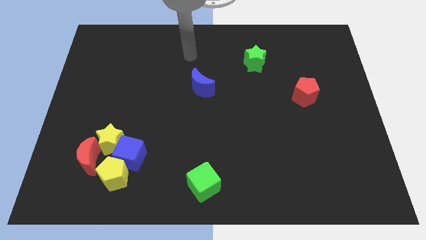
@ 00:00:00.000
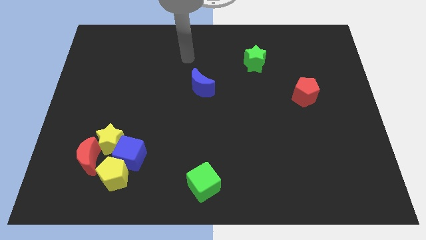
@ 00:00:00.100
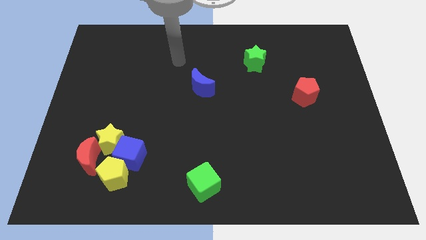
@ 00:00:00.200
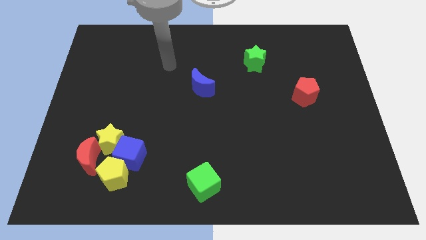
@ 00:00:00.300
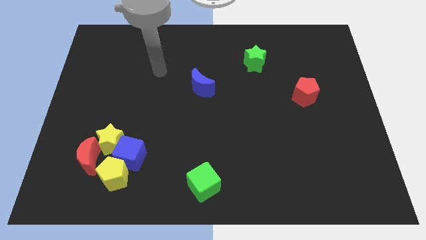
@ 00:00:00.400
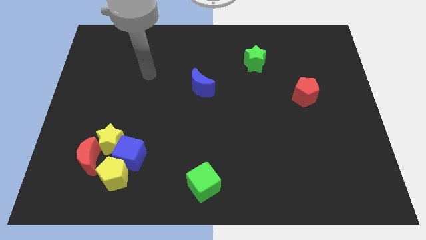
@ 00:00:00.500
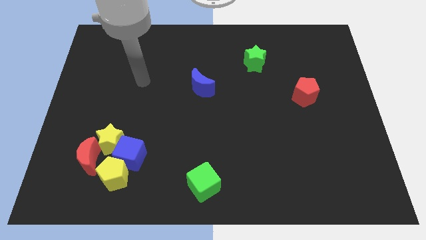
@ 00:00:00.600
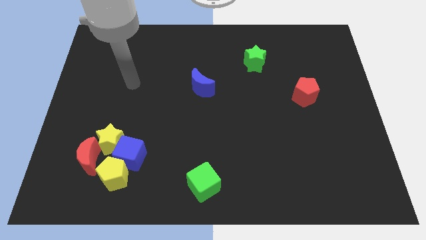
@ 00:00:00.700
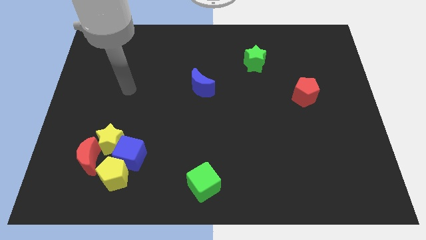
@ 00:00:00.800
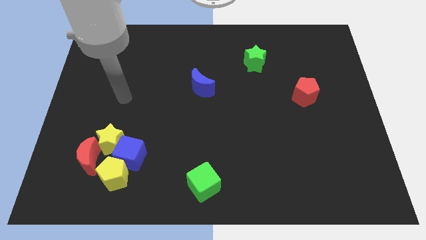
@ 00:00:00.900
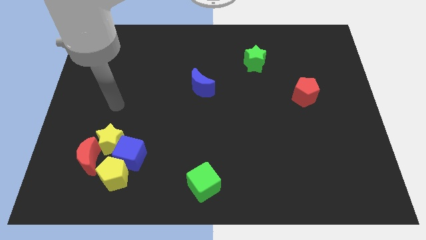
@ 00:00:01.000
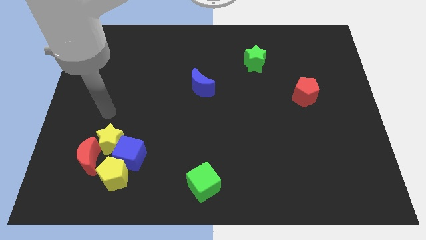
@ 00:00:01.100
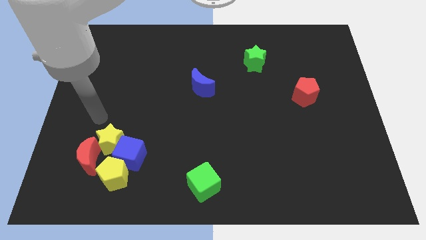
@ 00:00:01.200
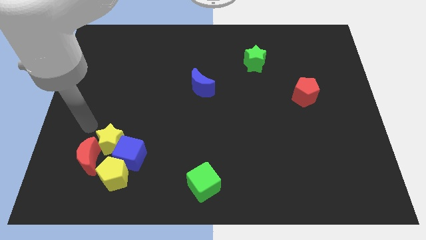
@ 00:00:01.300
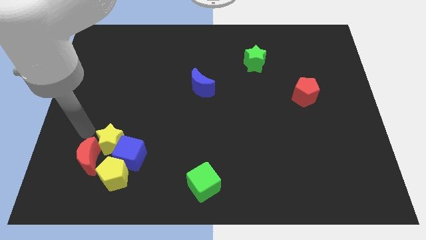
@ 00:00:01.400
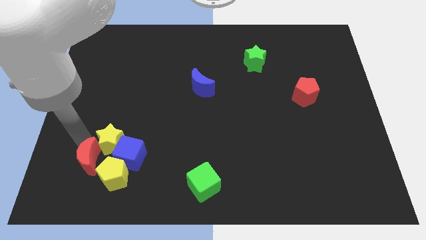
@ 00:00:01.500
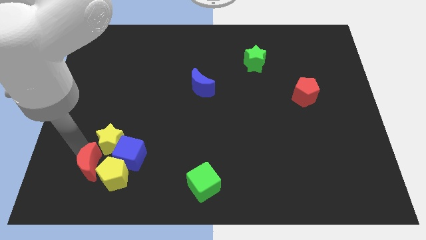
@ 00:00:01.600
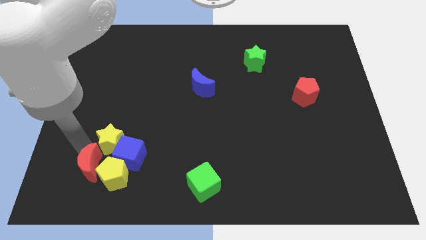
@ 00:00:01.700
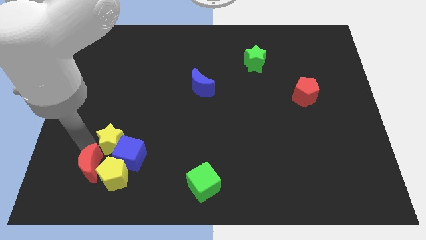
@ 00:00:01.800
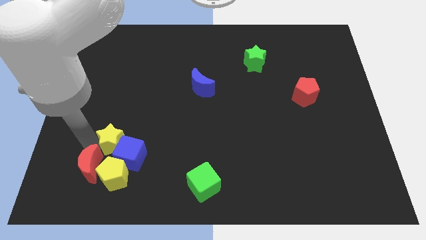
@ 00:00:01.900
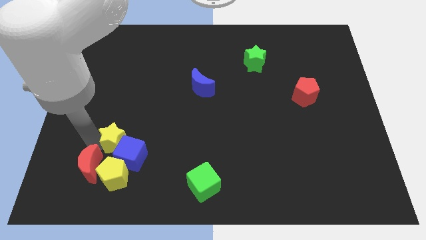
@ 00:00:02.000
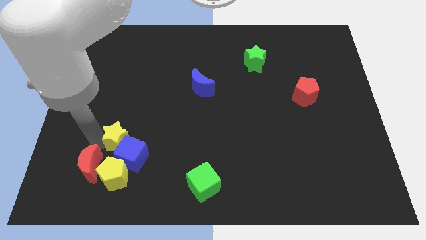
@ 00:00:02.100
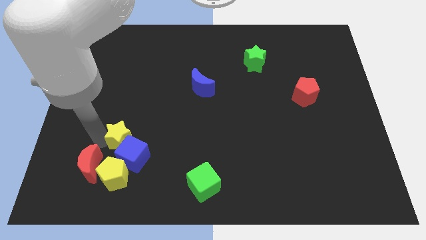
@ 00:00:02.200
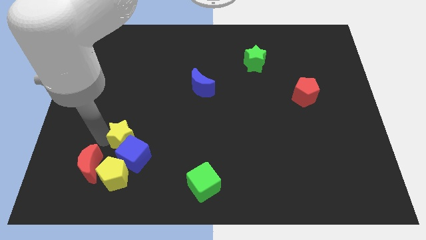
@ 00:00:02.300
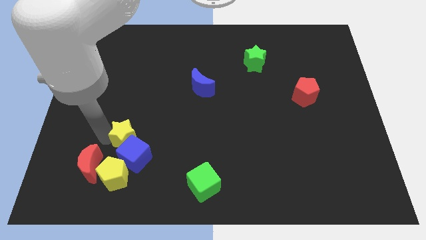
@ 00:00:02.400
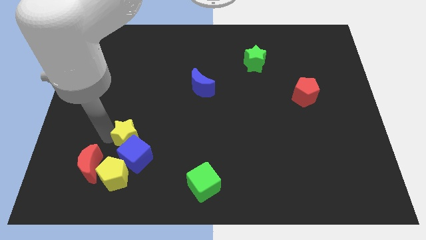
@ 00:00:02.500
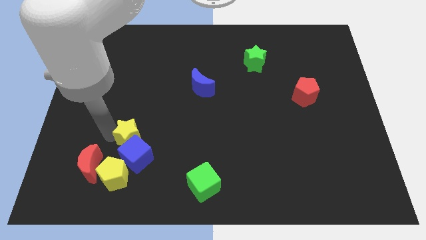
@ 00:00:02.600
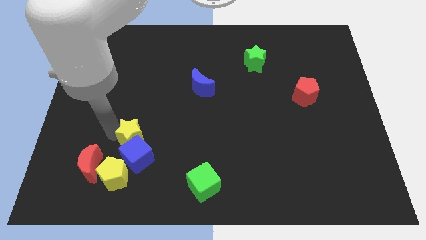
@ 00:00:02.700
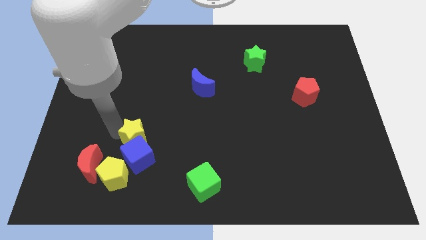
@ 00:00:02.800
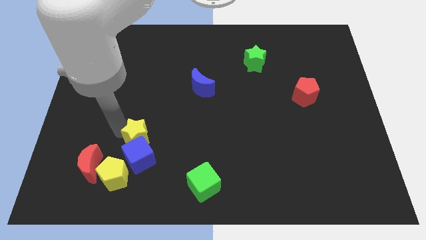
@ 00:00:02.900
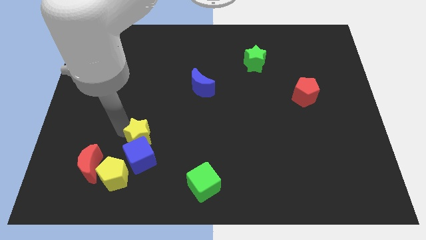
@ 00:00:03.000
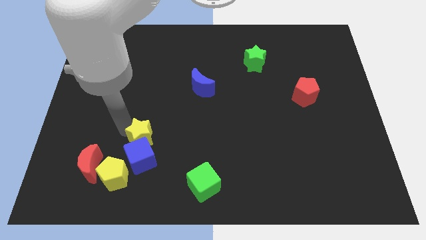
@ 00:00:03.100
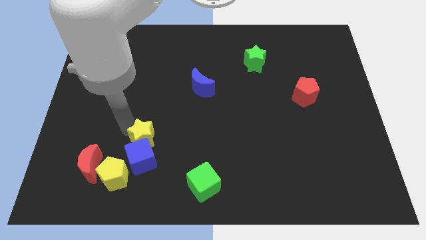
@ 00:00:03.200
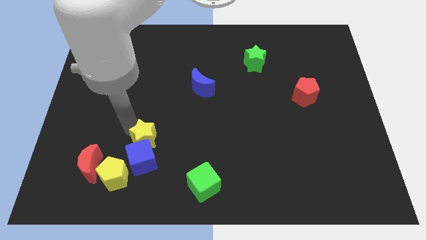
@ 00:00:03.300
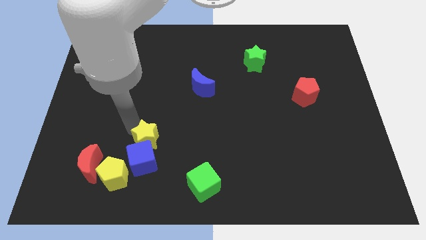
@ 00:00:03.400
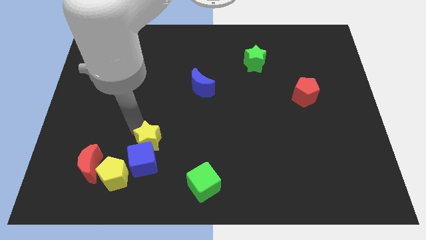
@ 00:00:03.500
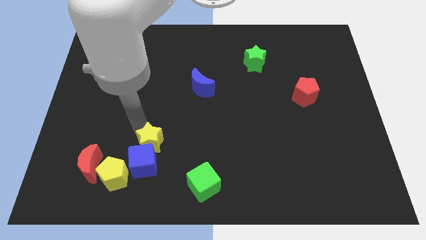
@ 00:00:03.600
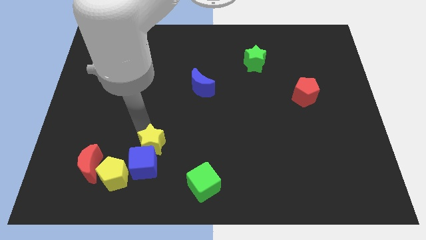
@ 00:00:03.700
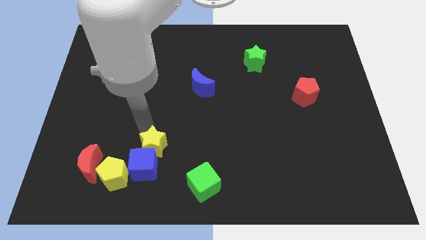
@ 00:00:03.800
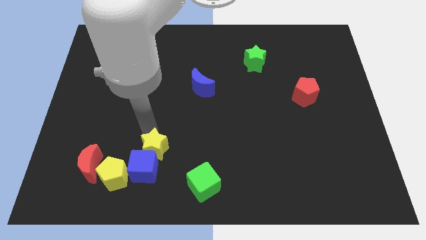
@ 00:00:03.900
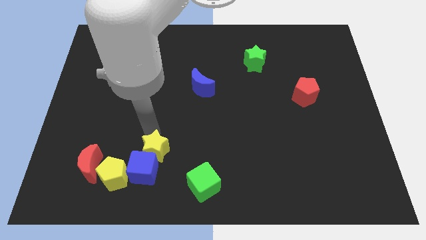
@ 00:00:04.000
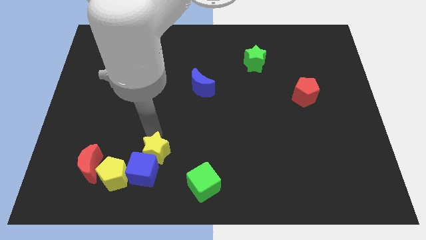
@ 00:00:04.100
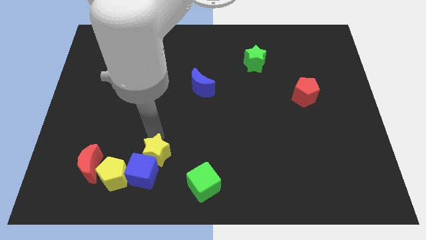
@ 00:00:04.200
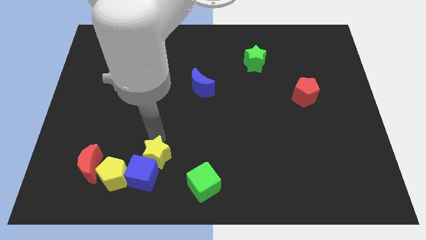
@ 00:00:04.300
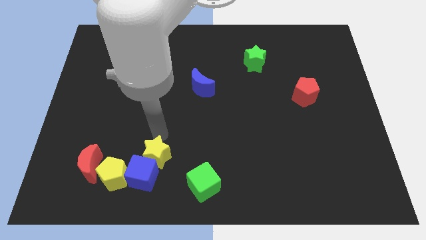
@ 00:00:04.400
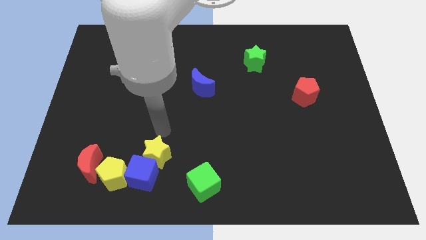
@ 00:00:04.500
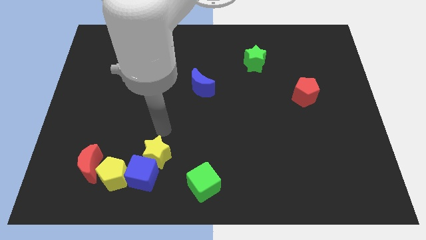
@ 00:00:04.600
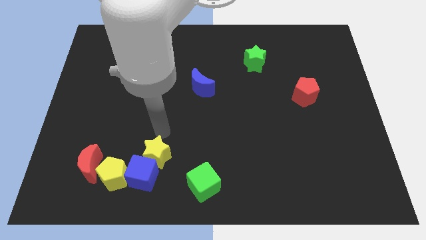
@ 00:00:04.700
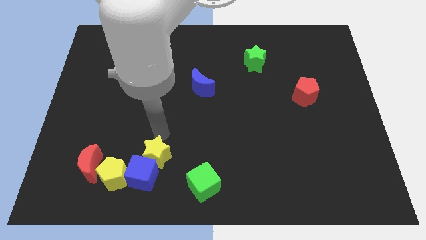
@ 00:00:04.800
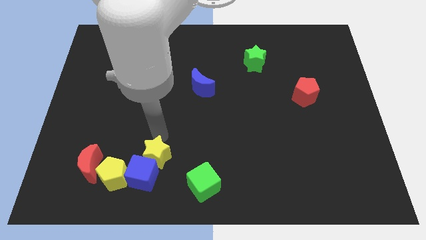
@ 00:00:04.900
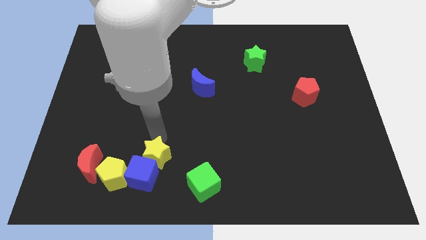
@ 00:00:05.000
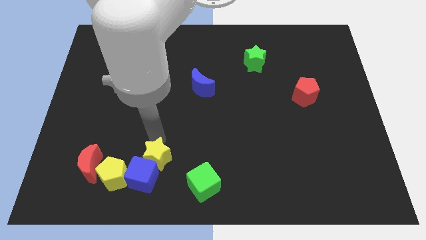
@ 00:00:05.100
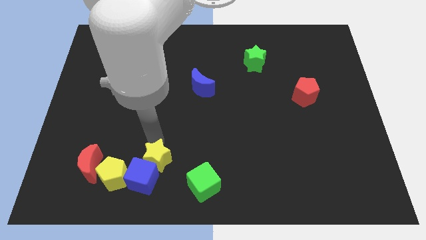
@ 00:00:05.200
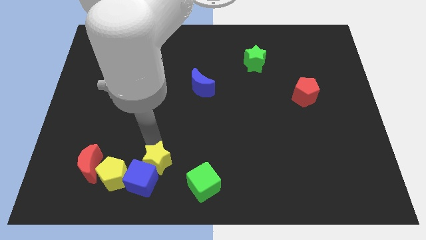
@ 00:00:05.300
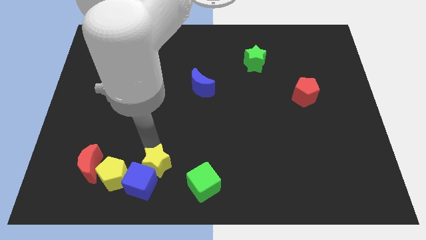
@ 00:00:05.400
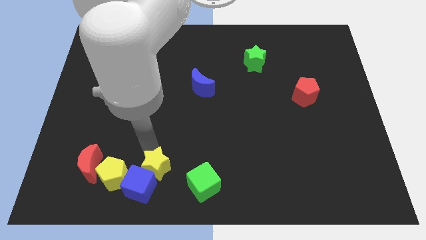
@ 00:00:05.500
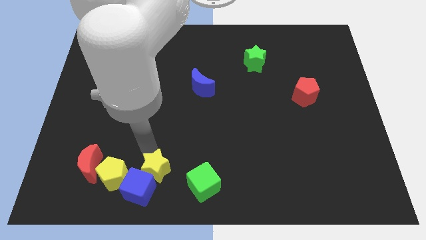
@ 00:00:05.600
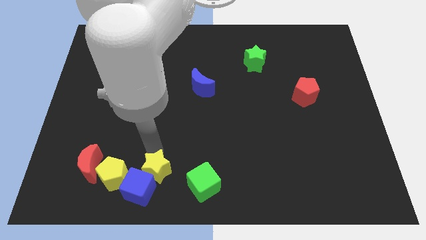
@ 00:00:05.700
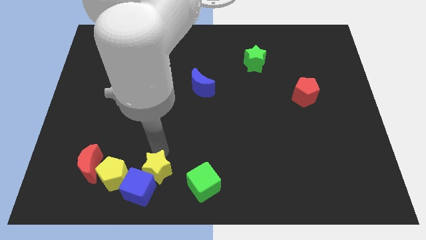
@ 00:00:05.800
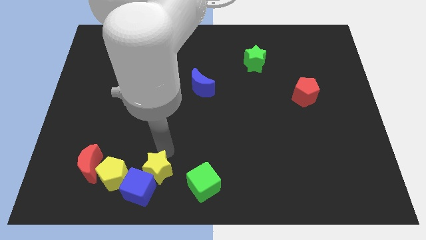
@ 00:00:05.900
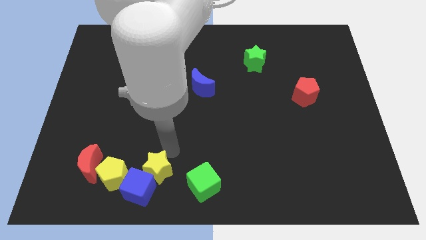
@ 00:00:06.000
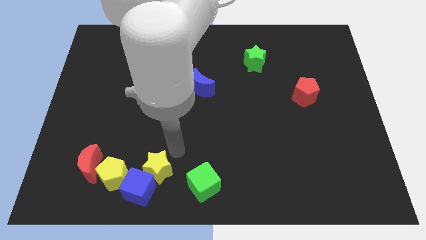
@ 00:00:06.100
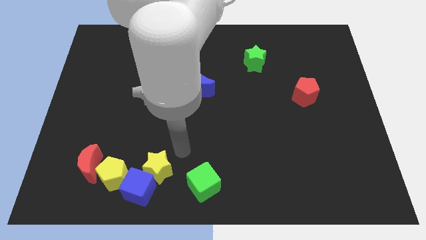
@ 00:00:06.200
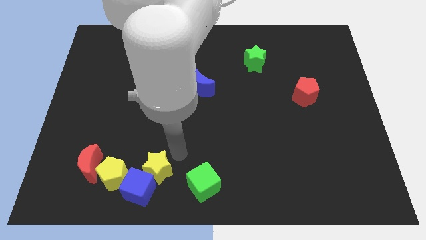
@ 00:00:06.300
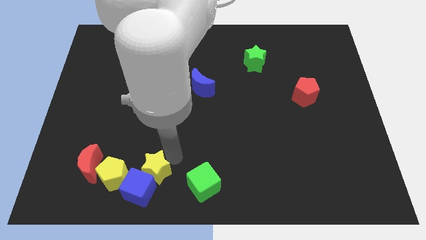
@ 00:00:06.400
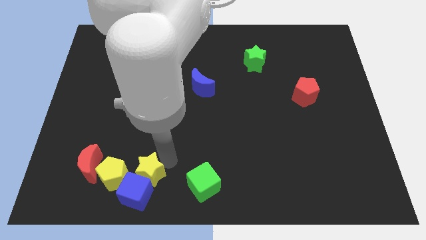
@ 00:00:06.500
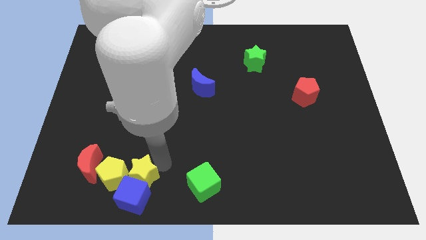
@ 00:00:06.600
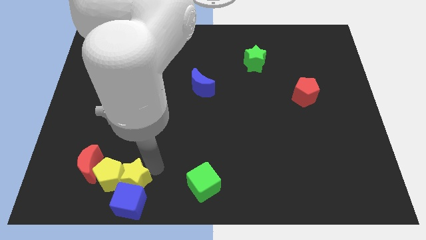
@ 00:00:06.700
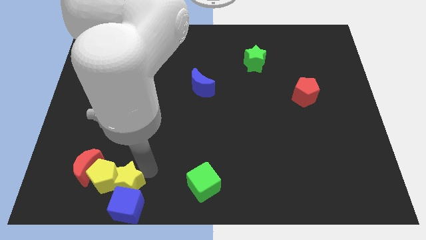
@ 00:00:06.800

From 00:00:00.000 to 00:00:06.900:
move the yellow star to the bottom right of the red moon
